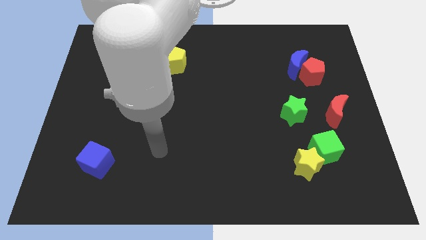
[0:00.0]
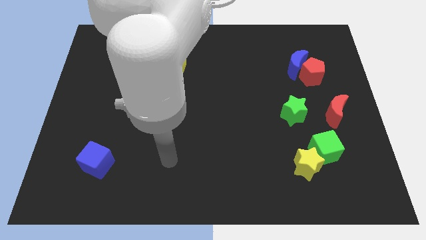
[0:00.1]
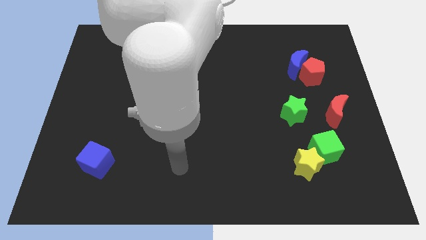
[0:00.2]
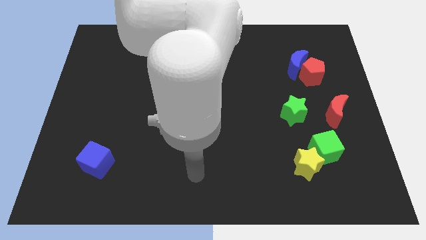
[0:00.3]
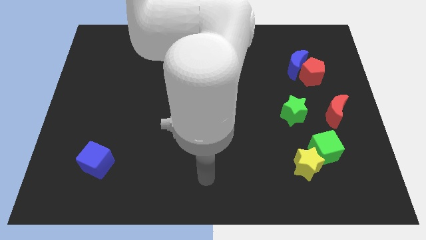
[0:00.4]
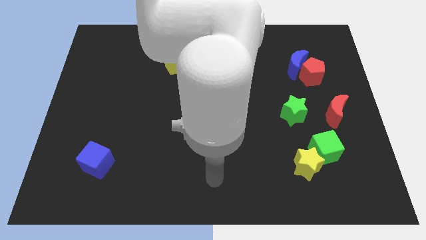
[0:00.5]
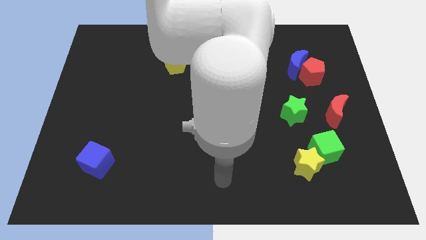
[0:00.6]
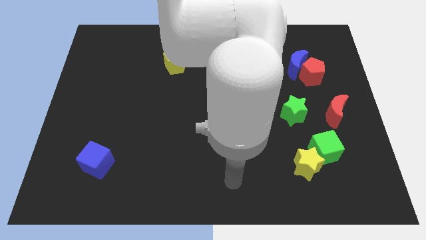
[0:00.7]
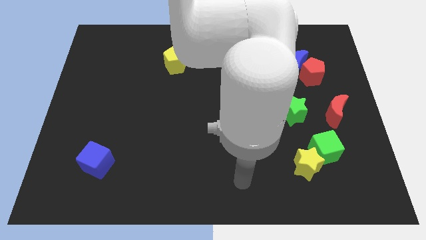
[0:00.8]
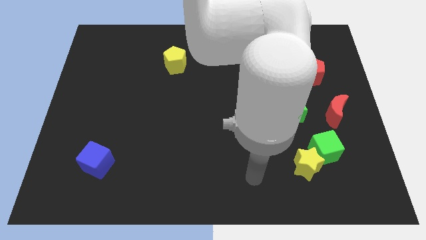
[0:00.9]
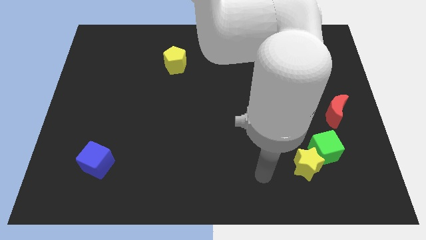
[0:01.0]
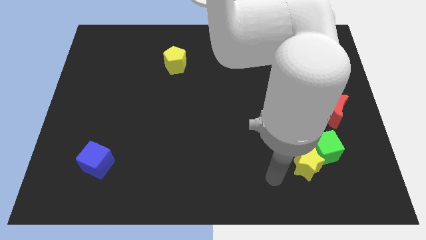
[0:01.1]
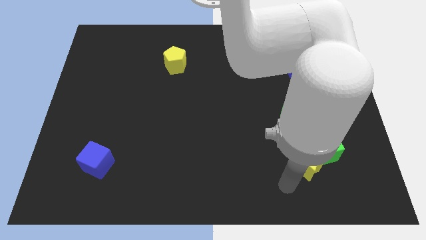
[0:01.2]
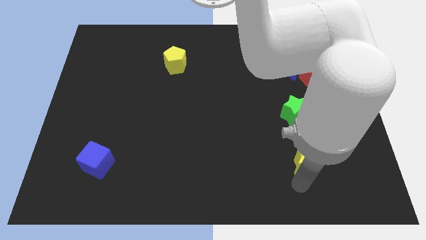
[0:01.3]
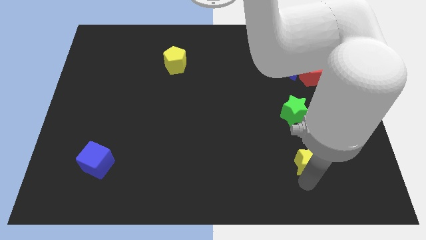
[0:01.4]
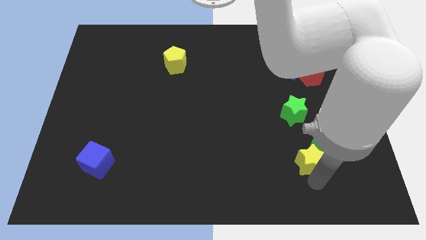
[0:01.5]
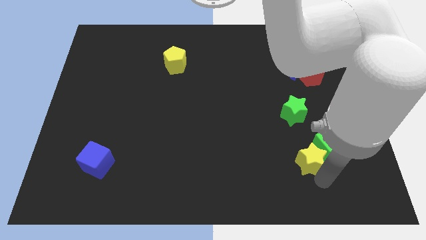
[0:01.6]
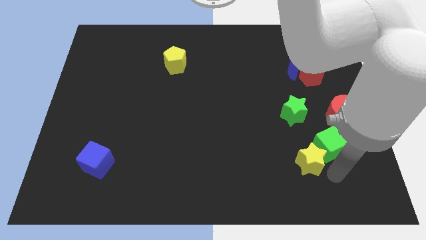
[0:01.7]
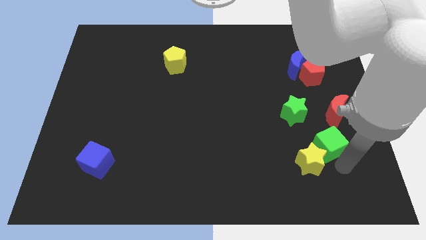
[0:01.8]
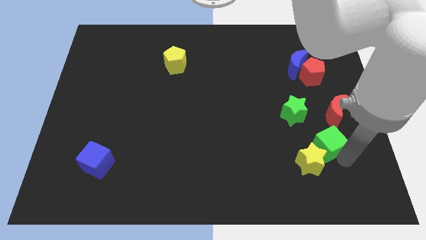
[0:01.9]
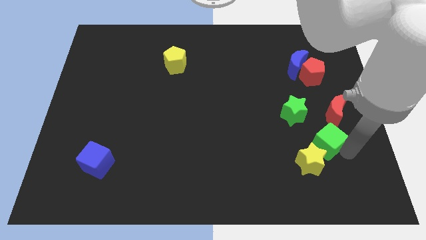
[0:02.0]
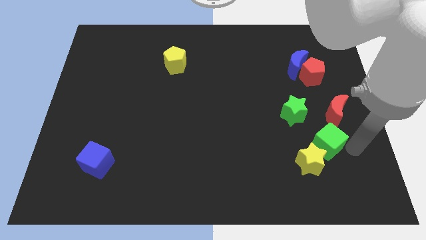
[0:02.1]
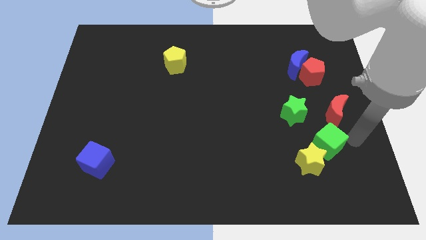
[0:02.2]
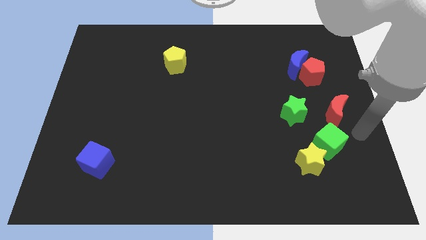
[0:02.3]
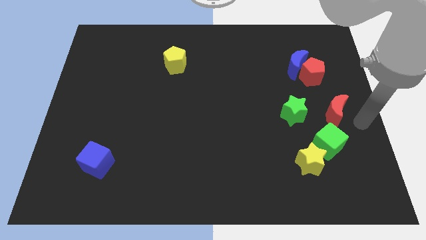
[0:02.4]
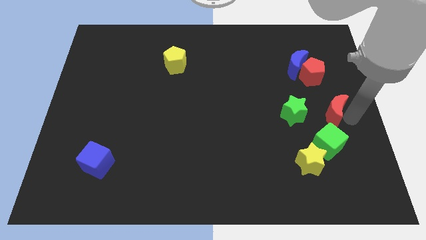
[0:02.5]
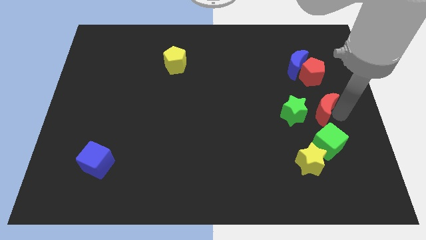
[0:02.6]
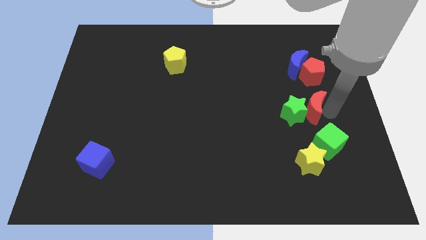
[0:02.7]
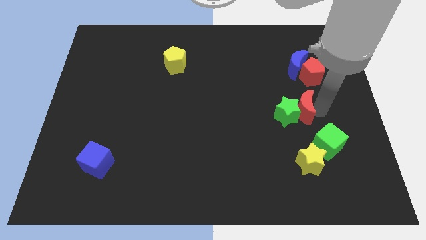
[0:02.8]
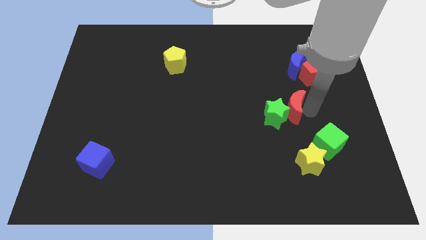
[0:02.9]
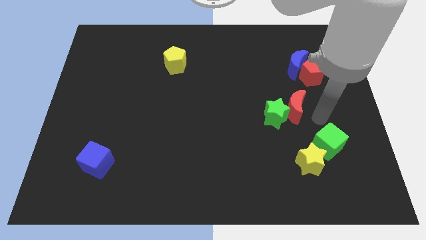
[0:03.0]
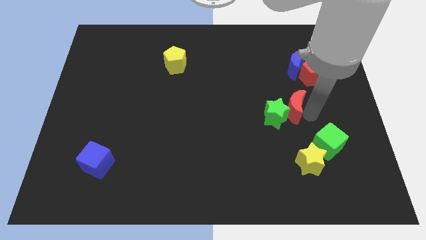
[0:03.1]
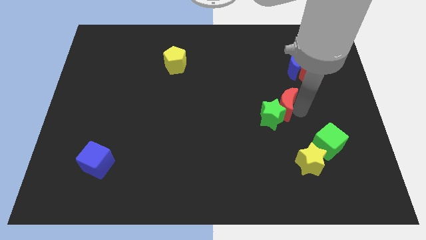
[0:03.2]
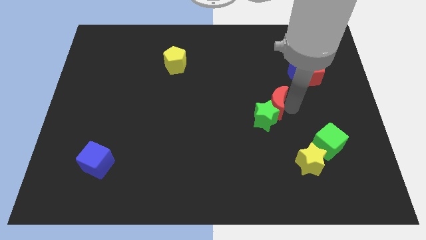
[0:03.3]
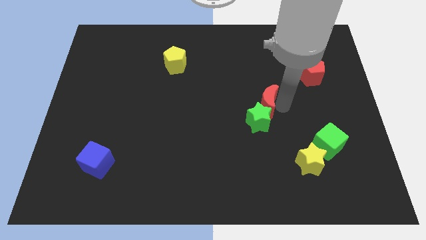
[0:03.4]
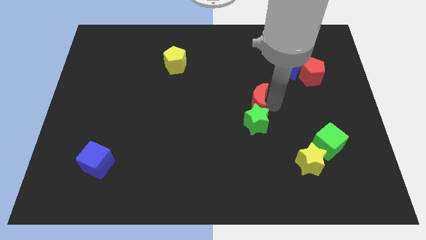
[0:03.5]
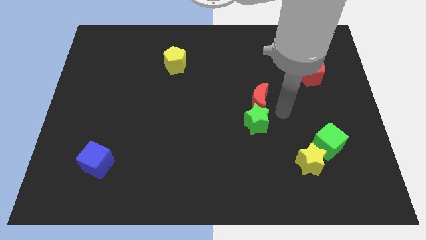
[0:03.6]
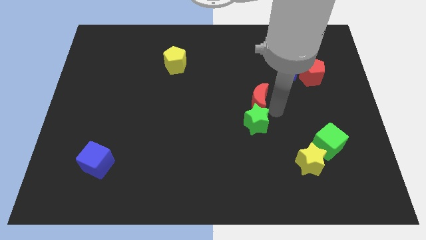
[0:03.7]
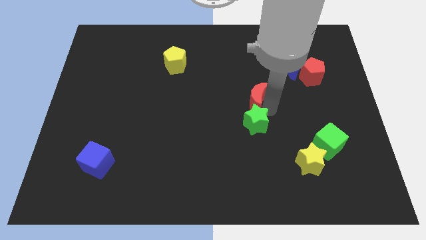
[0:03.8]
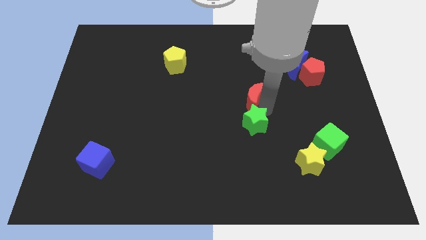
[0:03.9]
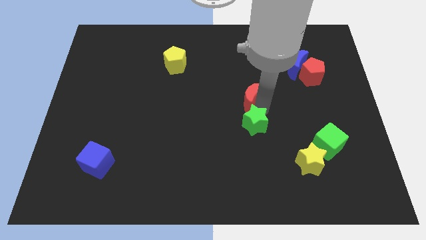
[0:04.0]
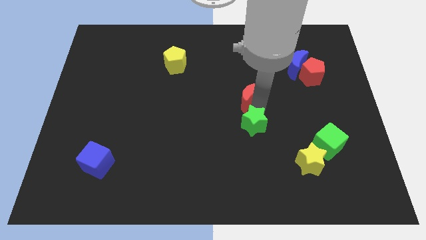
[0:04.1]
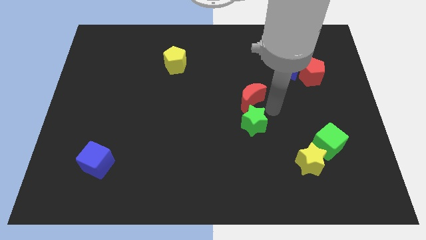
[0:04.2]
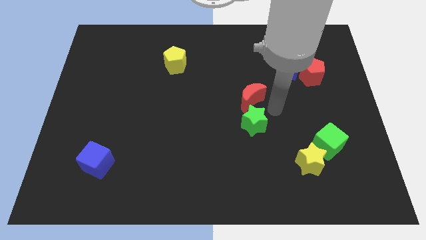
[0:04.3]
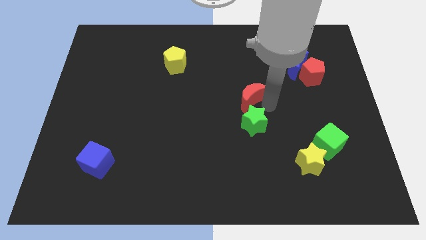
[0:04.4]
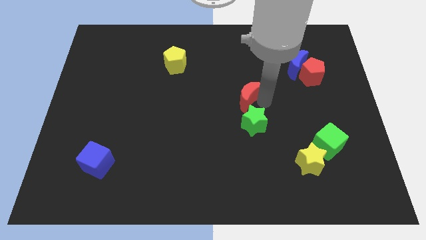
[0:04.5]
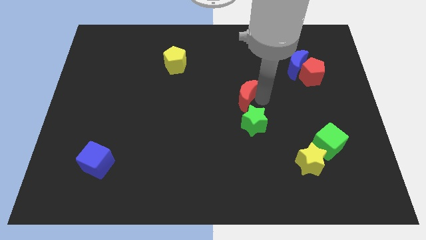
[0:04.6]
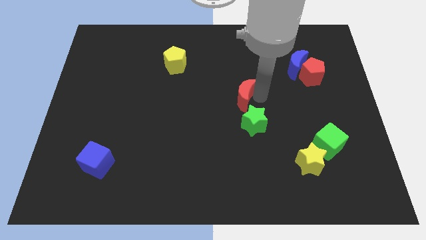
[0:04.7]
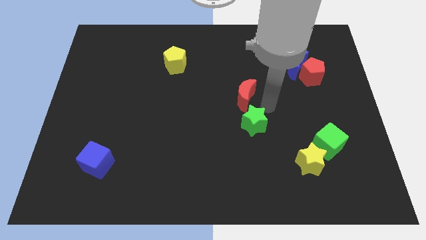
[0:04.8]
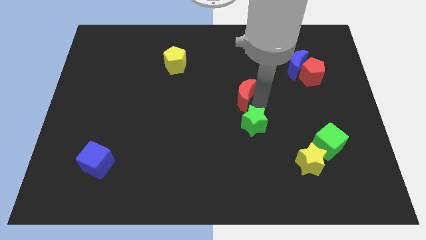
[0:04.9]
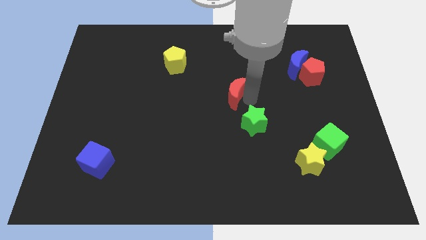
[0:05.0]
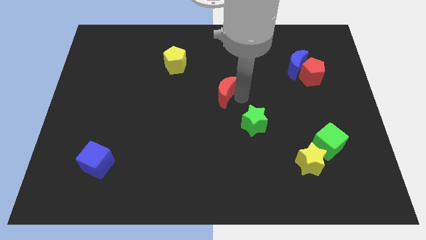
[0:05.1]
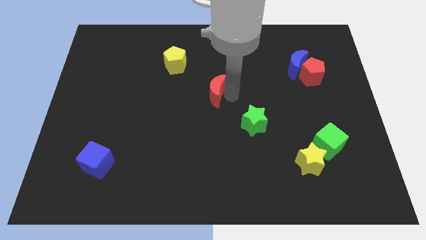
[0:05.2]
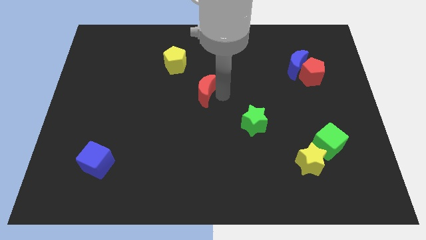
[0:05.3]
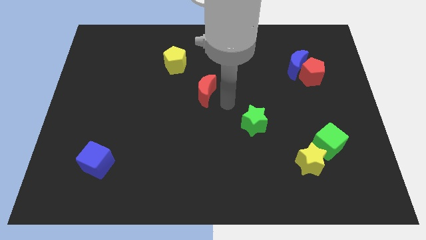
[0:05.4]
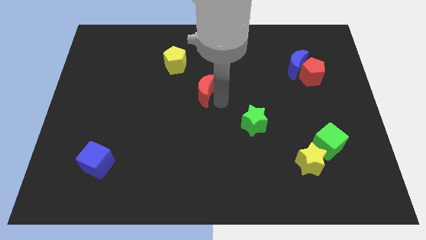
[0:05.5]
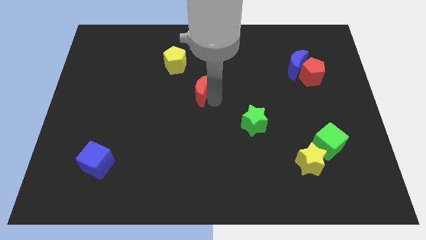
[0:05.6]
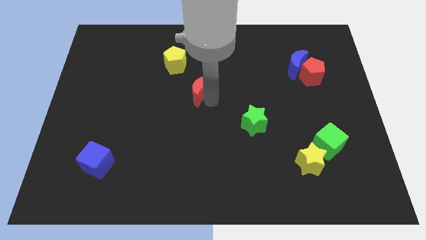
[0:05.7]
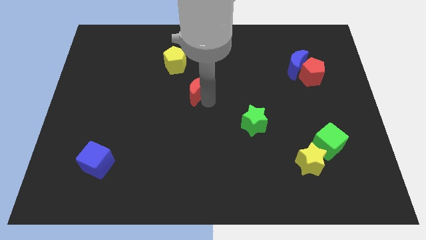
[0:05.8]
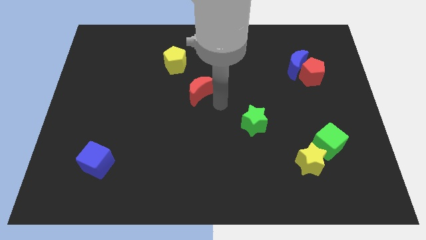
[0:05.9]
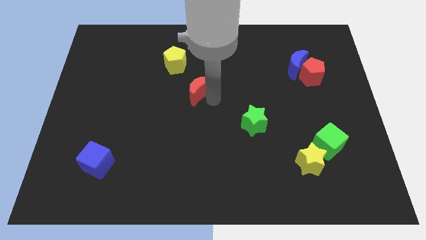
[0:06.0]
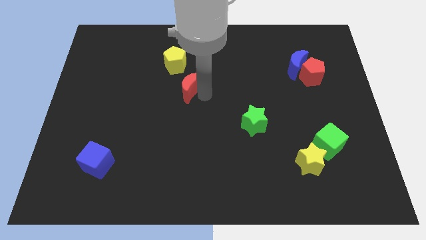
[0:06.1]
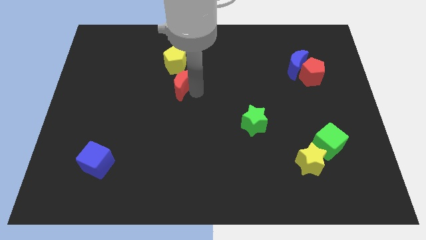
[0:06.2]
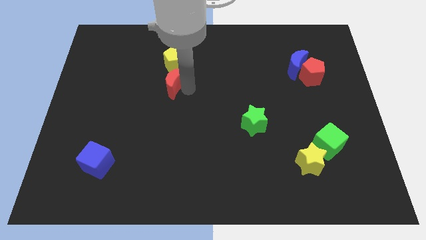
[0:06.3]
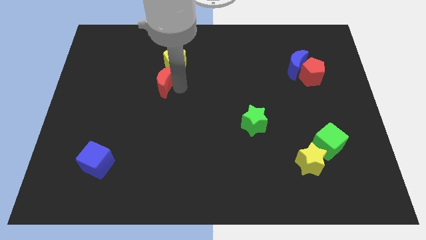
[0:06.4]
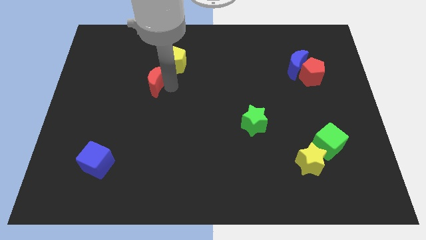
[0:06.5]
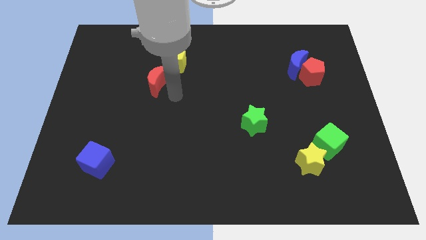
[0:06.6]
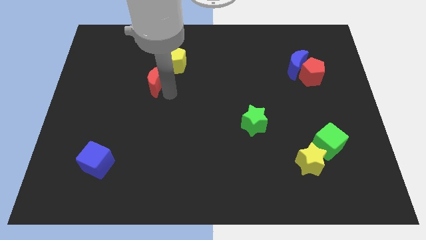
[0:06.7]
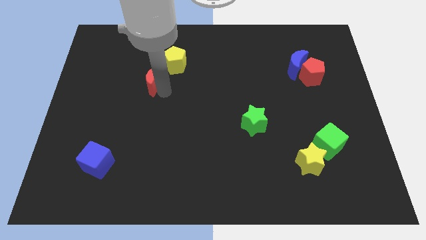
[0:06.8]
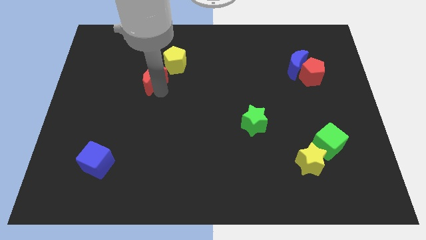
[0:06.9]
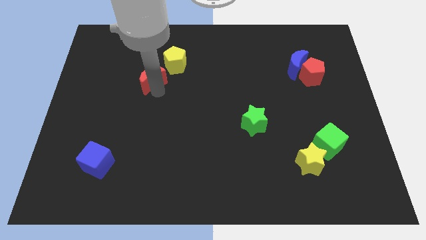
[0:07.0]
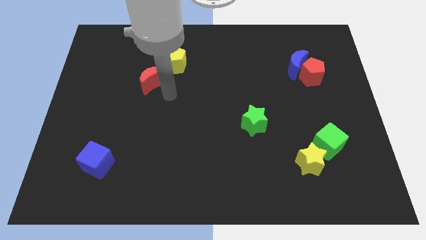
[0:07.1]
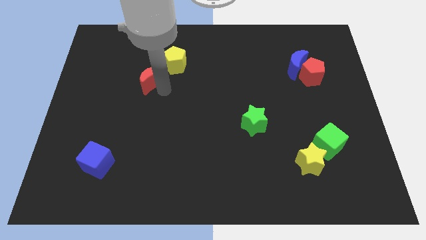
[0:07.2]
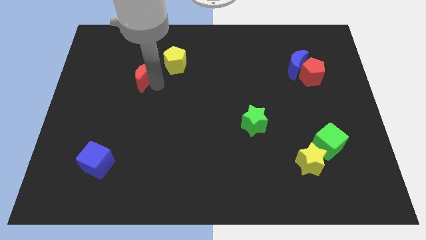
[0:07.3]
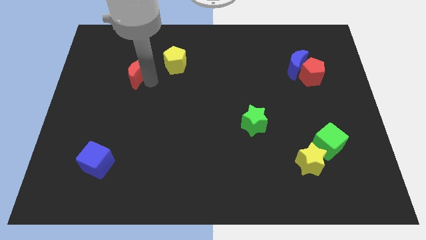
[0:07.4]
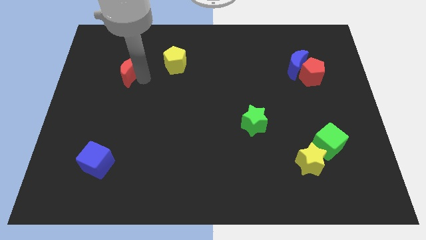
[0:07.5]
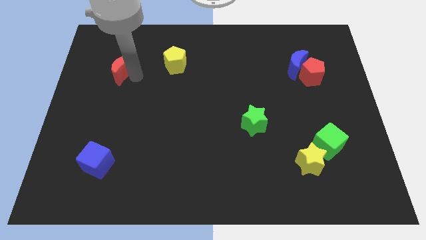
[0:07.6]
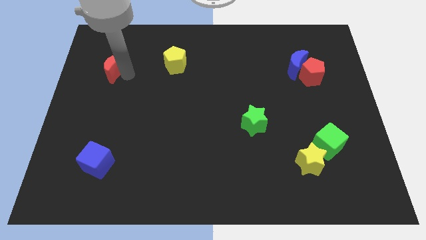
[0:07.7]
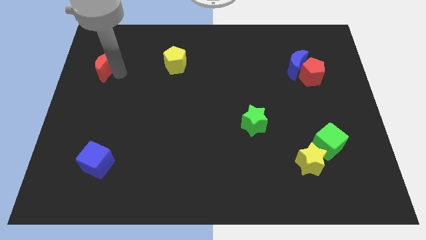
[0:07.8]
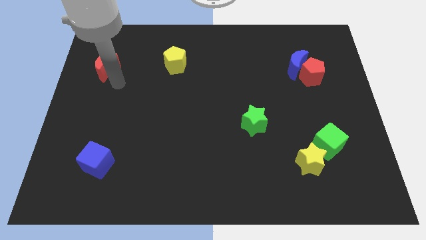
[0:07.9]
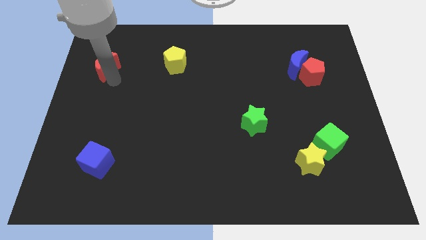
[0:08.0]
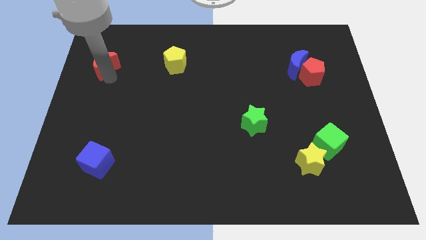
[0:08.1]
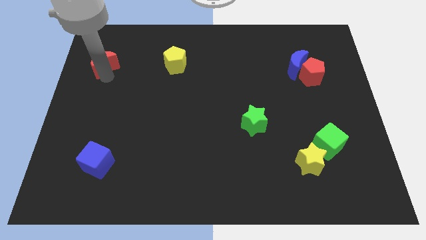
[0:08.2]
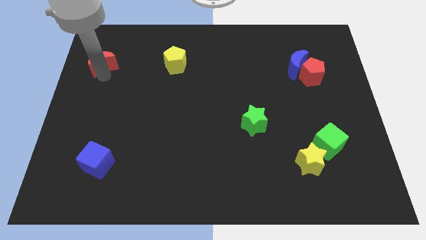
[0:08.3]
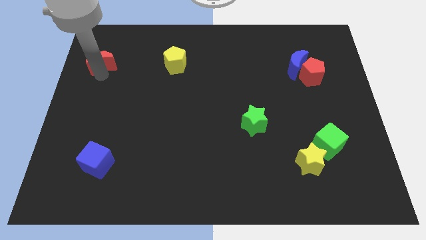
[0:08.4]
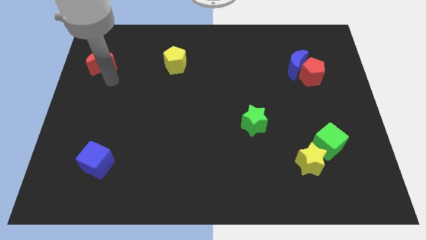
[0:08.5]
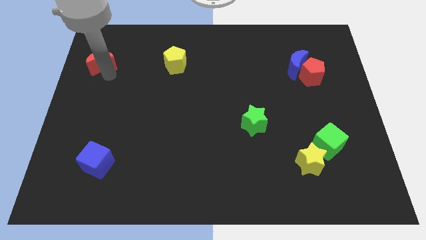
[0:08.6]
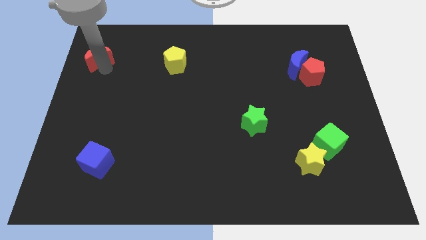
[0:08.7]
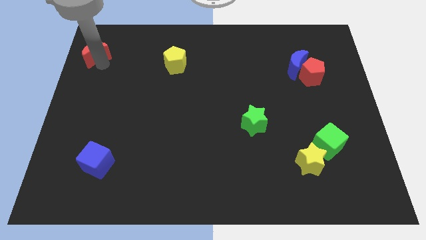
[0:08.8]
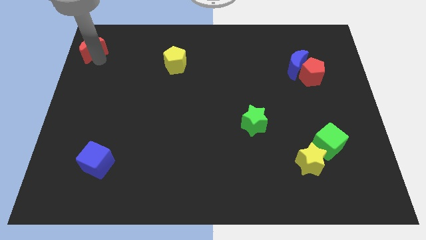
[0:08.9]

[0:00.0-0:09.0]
push the red moon to the upper left corner
